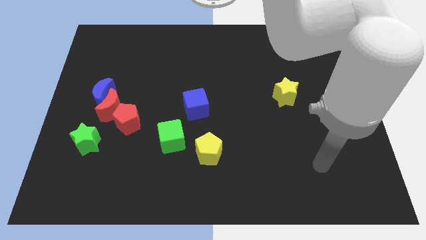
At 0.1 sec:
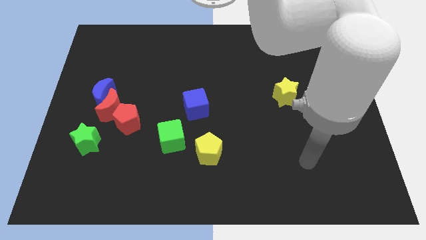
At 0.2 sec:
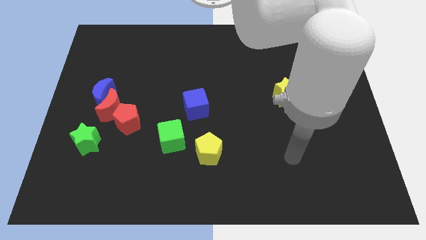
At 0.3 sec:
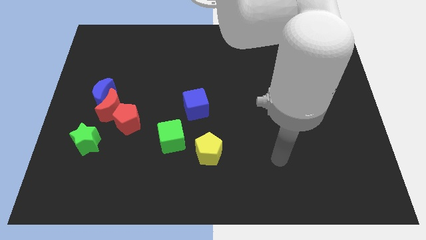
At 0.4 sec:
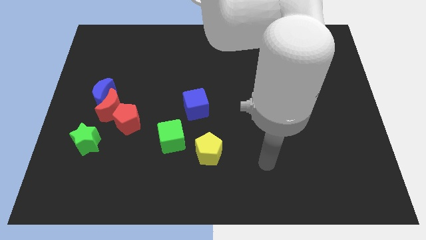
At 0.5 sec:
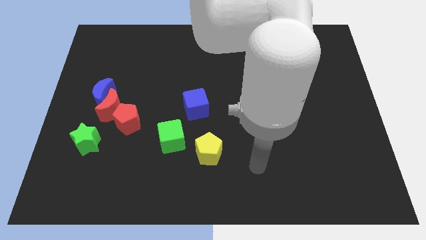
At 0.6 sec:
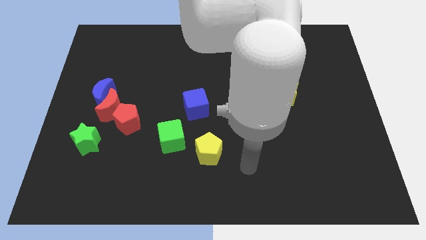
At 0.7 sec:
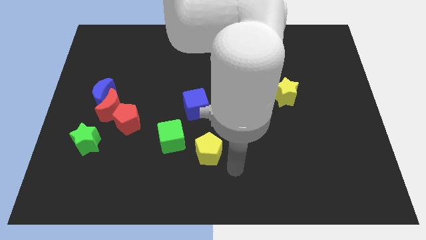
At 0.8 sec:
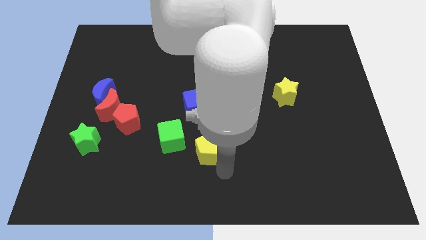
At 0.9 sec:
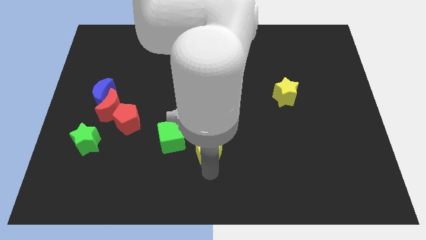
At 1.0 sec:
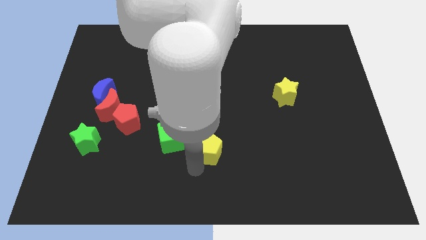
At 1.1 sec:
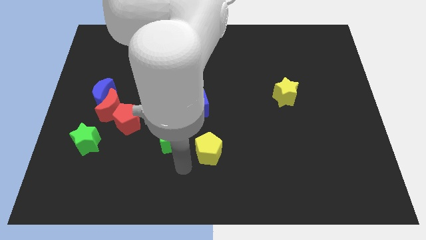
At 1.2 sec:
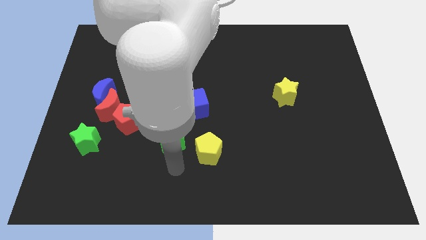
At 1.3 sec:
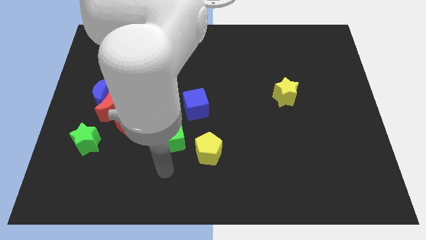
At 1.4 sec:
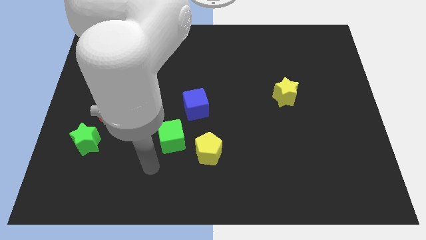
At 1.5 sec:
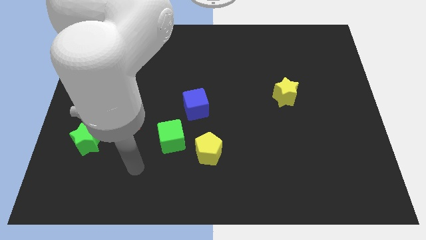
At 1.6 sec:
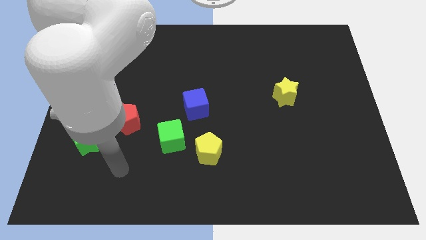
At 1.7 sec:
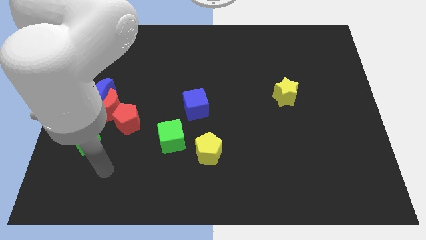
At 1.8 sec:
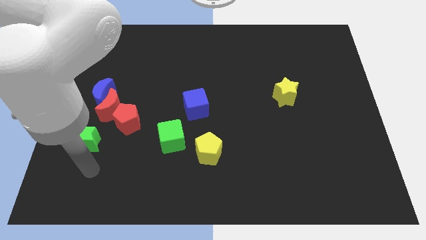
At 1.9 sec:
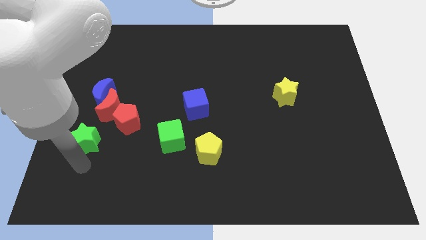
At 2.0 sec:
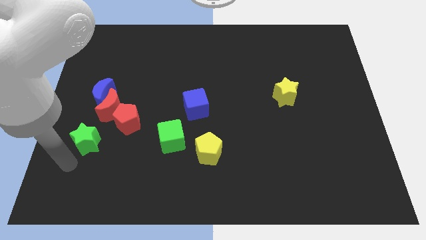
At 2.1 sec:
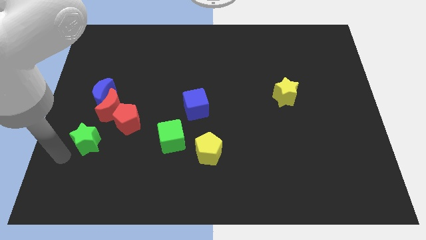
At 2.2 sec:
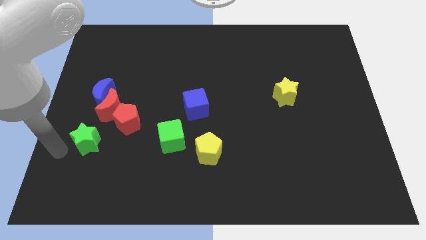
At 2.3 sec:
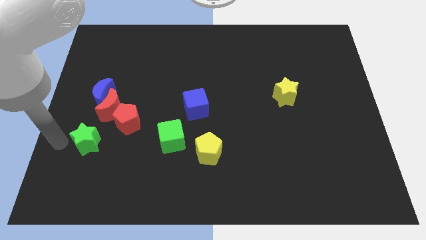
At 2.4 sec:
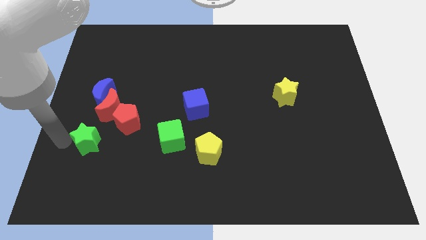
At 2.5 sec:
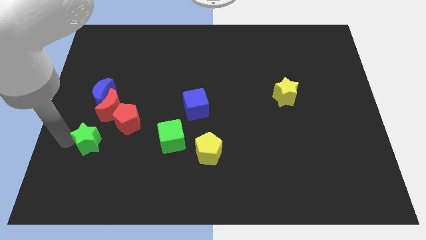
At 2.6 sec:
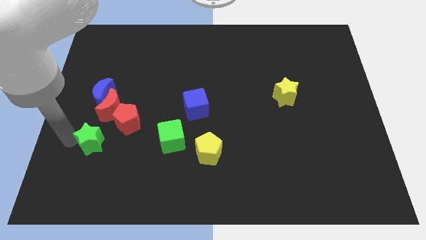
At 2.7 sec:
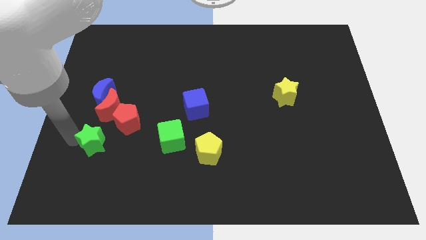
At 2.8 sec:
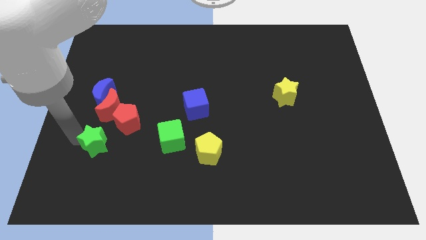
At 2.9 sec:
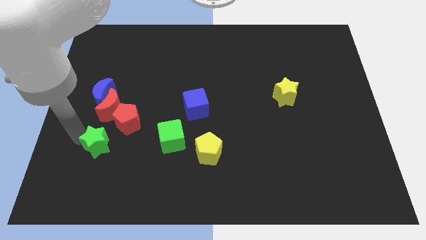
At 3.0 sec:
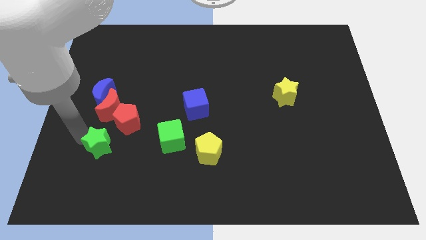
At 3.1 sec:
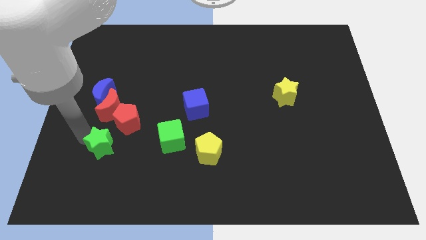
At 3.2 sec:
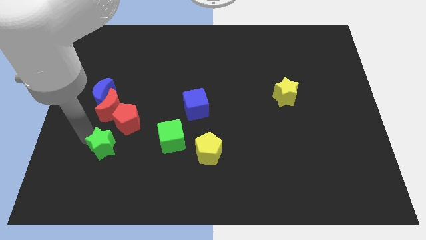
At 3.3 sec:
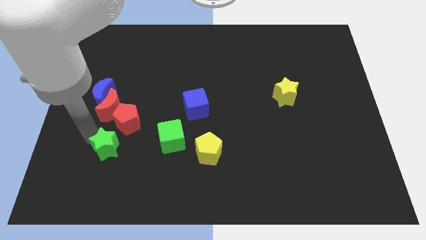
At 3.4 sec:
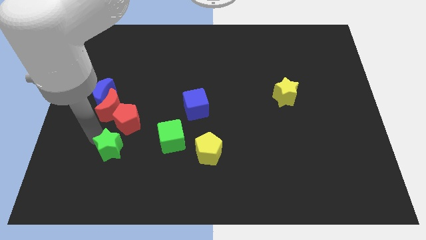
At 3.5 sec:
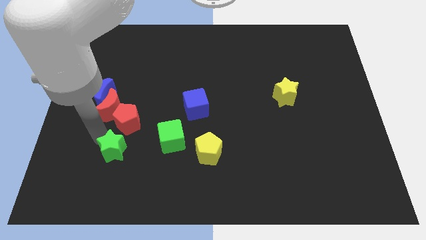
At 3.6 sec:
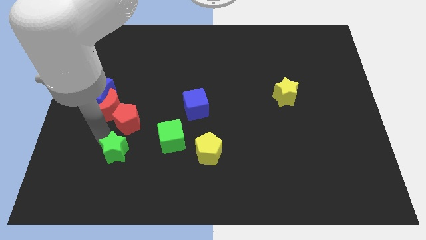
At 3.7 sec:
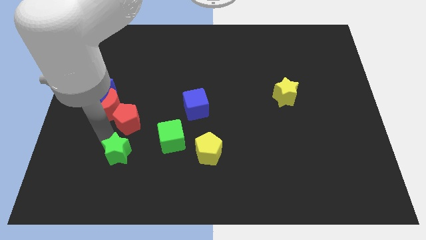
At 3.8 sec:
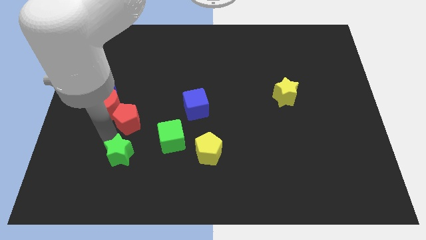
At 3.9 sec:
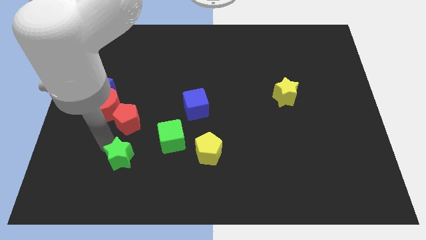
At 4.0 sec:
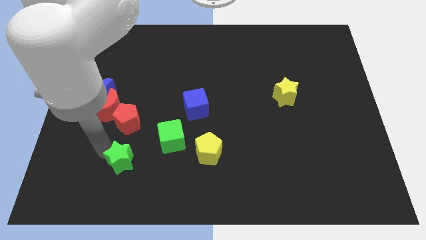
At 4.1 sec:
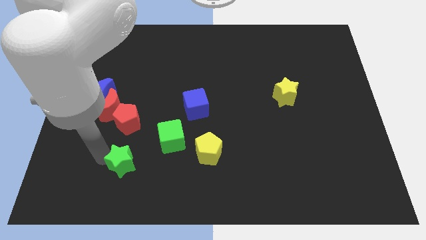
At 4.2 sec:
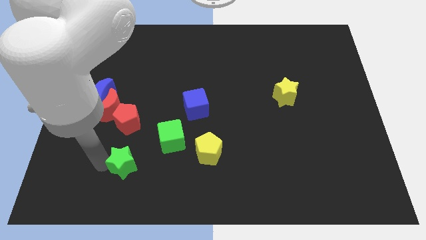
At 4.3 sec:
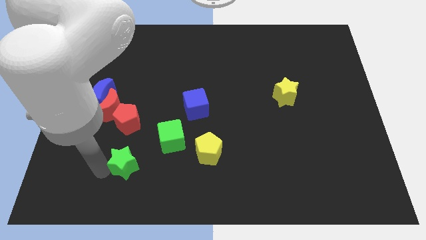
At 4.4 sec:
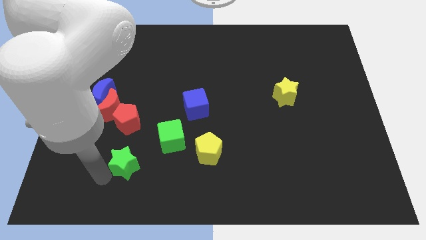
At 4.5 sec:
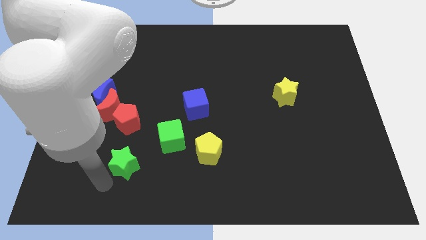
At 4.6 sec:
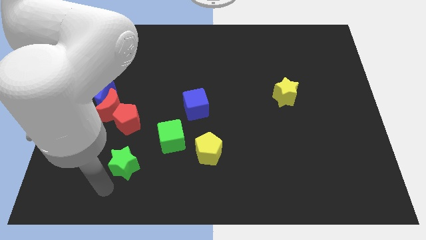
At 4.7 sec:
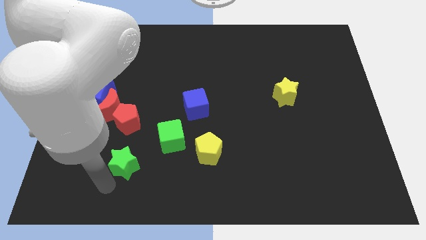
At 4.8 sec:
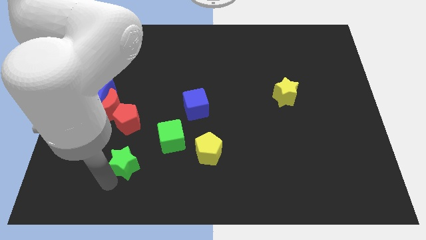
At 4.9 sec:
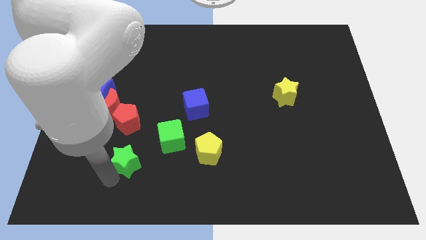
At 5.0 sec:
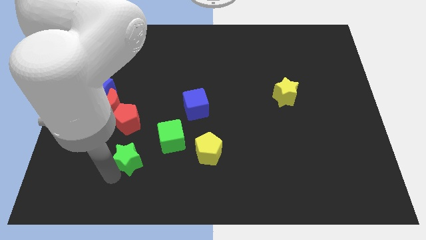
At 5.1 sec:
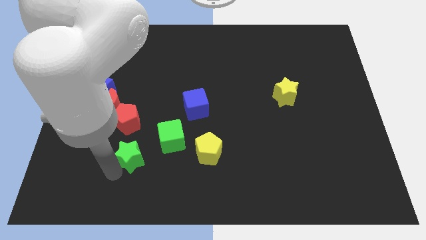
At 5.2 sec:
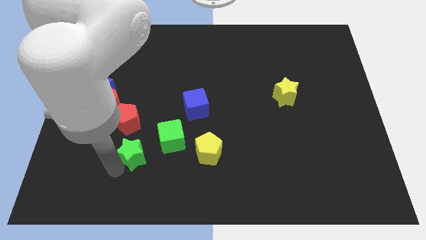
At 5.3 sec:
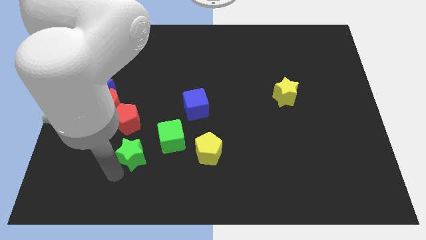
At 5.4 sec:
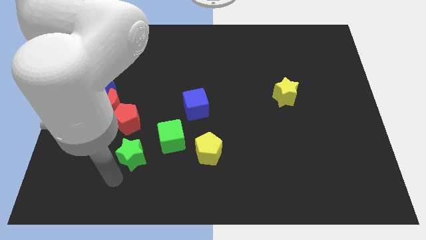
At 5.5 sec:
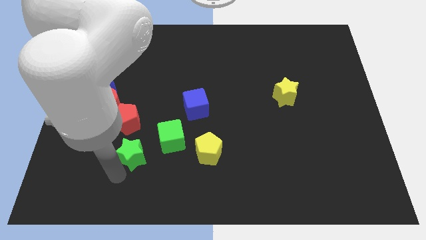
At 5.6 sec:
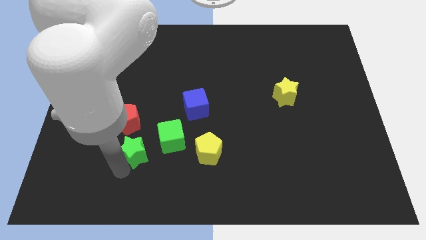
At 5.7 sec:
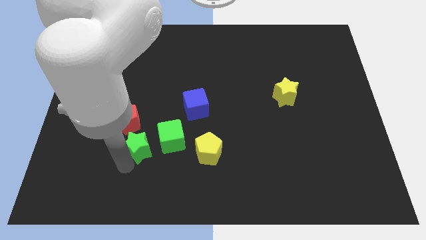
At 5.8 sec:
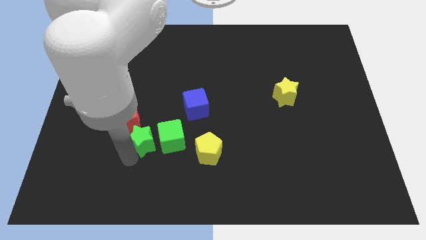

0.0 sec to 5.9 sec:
push the green star towards the green cube
